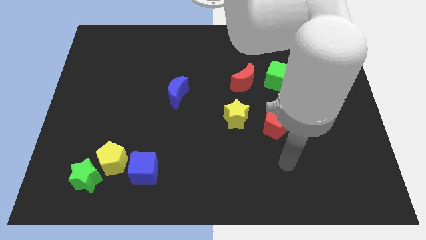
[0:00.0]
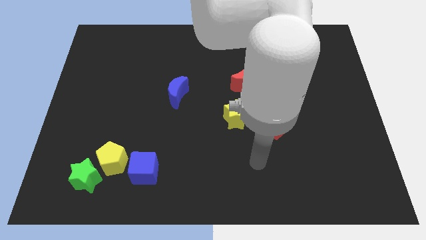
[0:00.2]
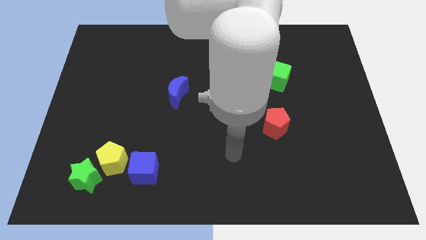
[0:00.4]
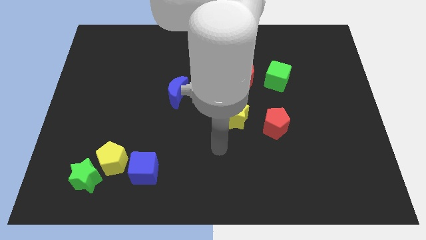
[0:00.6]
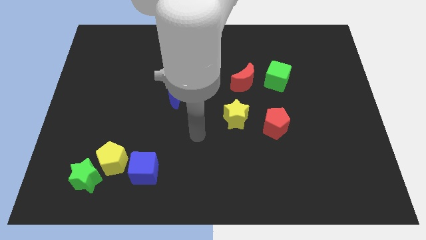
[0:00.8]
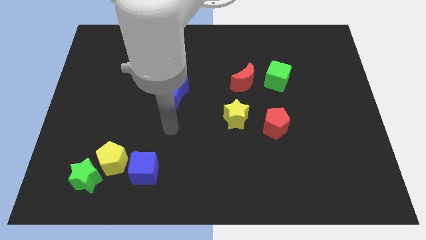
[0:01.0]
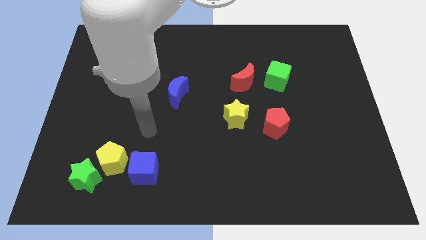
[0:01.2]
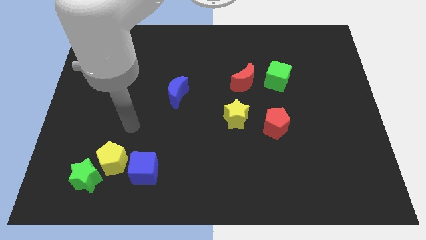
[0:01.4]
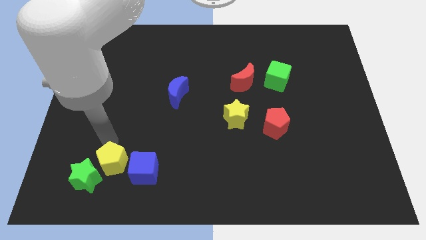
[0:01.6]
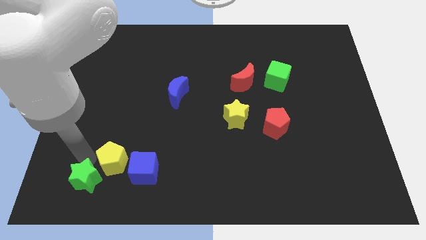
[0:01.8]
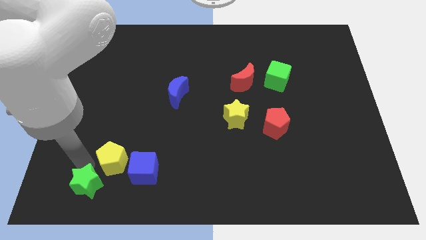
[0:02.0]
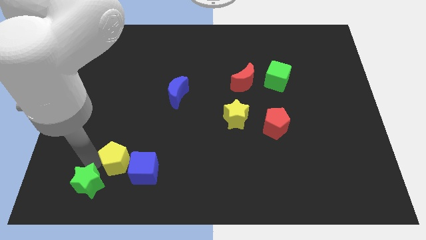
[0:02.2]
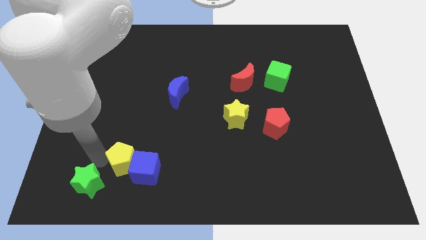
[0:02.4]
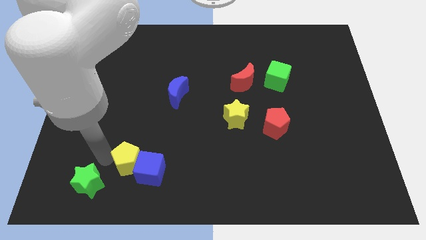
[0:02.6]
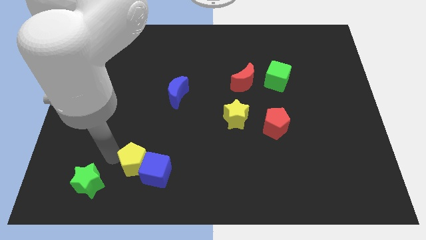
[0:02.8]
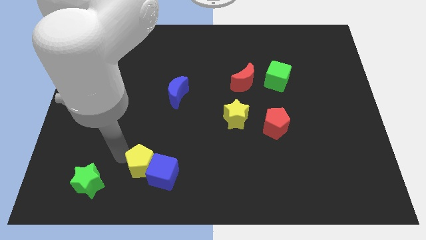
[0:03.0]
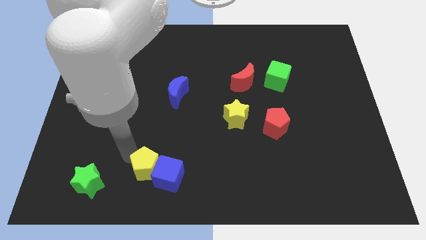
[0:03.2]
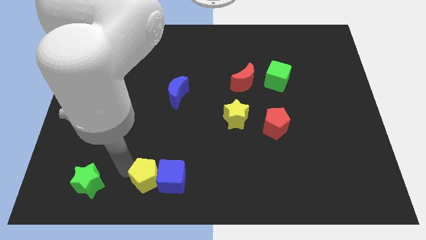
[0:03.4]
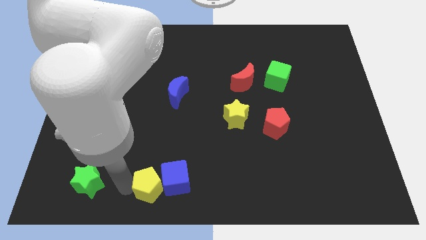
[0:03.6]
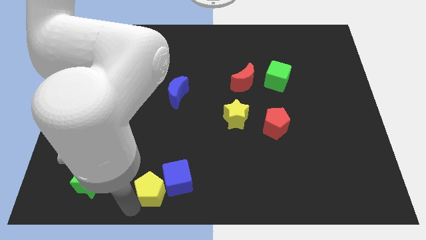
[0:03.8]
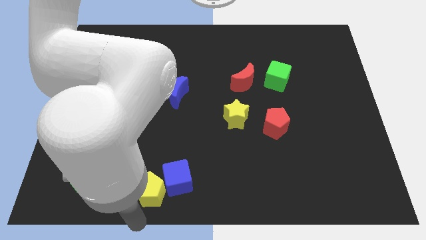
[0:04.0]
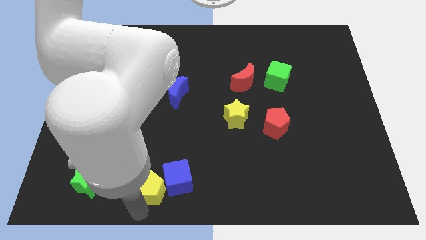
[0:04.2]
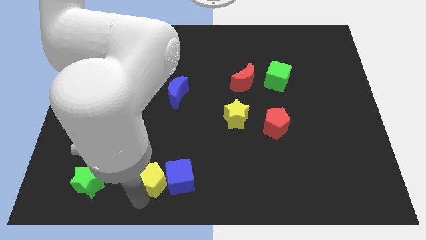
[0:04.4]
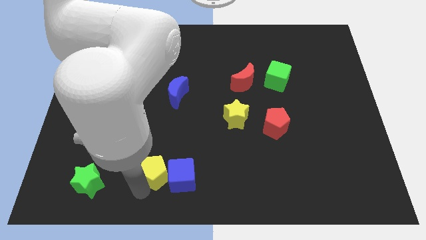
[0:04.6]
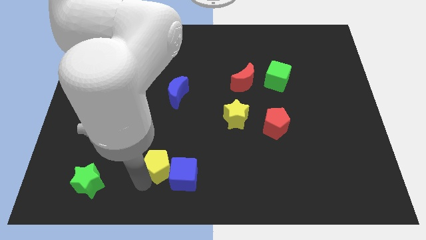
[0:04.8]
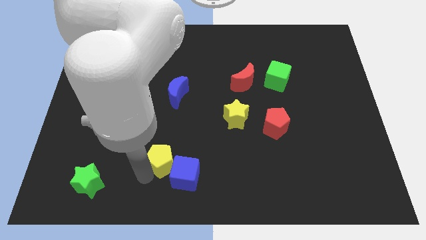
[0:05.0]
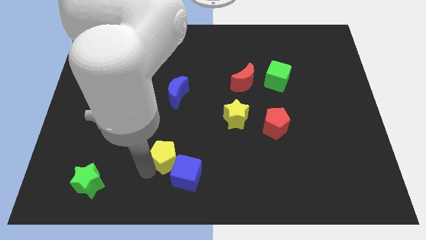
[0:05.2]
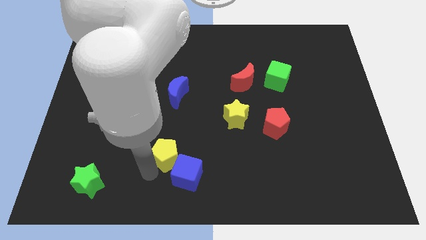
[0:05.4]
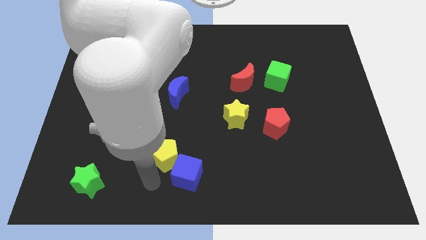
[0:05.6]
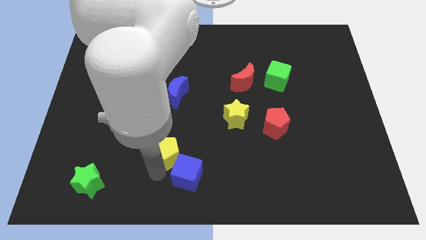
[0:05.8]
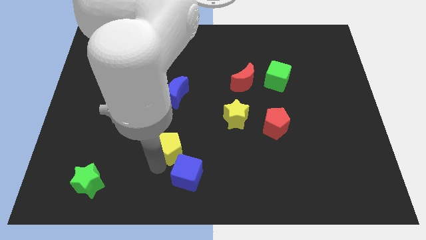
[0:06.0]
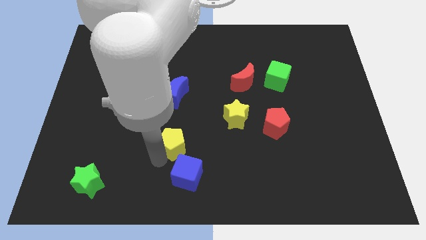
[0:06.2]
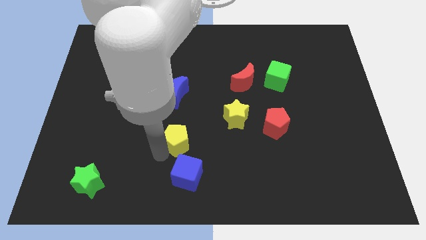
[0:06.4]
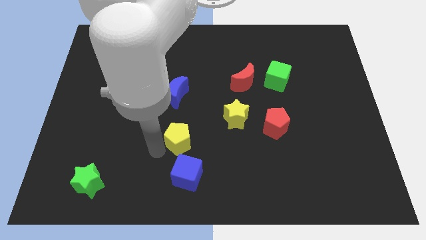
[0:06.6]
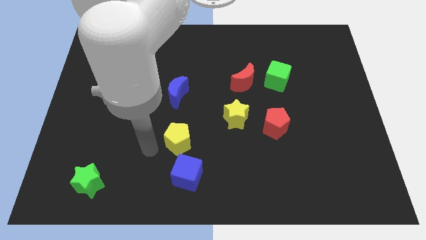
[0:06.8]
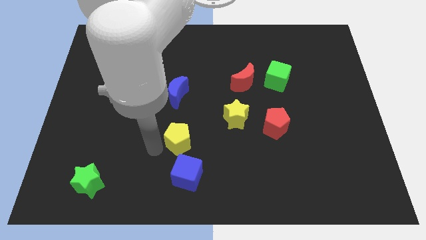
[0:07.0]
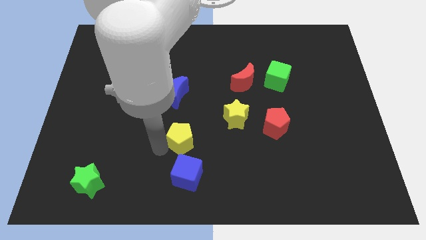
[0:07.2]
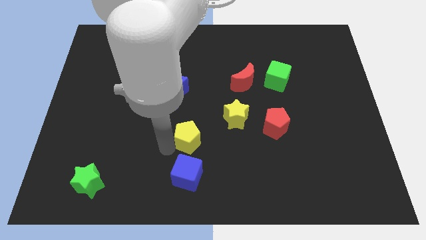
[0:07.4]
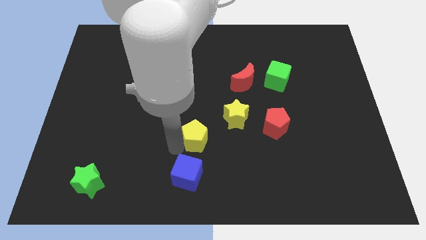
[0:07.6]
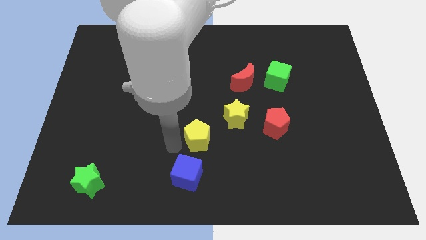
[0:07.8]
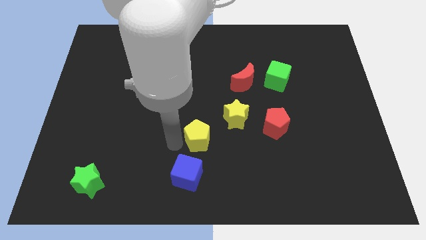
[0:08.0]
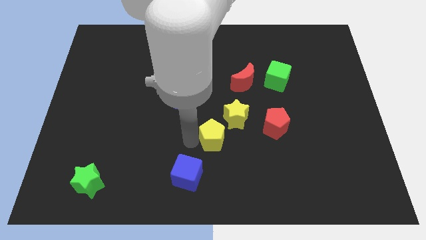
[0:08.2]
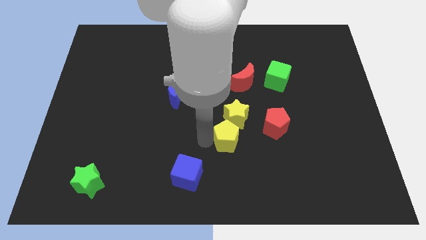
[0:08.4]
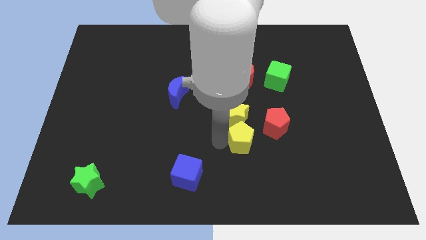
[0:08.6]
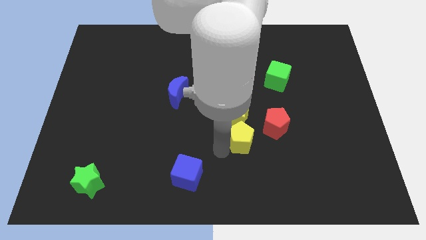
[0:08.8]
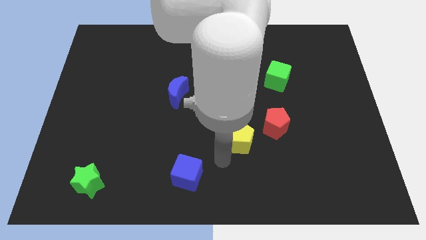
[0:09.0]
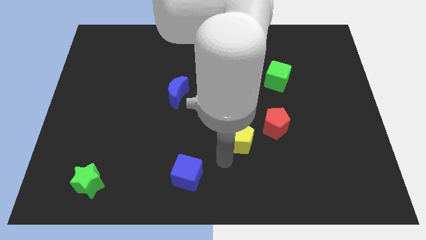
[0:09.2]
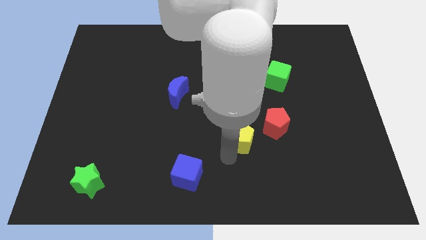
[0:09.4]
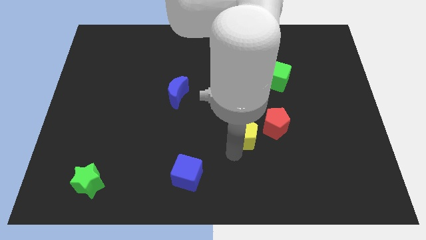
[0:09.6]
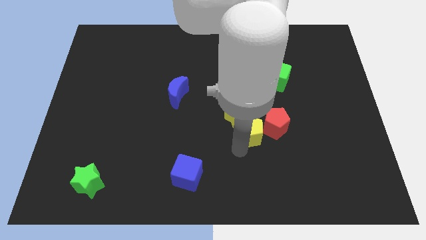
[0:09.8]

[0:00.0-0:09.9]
move the yellow pentagon towards the red pentagon
